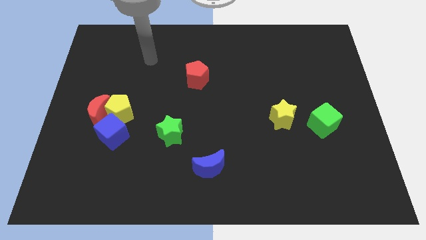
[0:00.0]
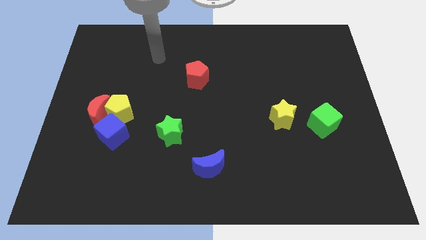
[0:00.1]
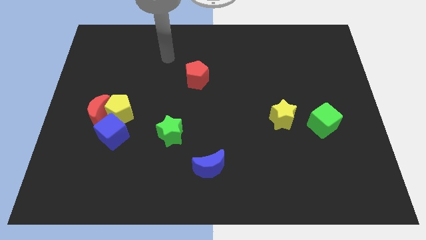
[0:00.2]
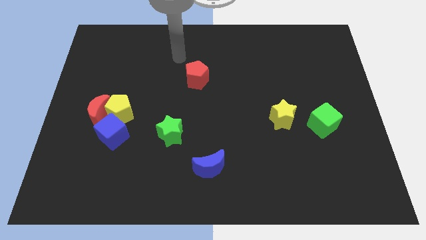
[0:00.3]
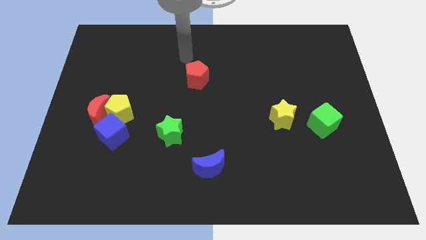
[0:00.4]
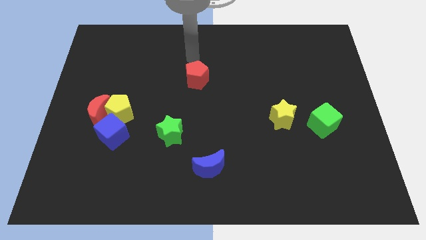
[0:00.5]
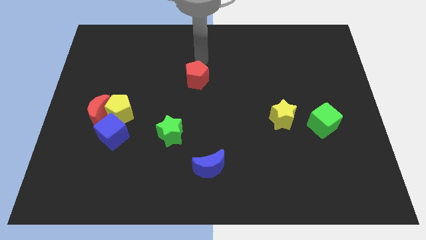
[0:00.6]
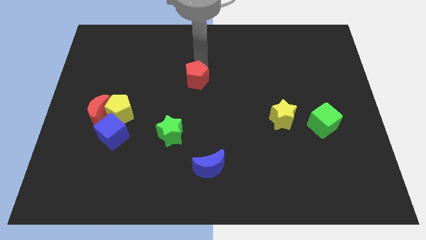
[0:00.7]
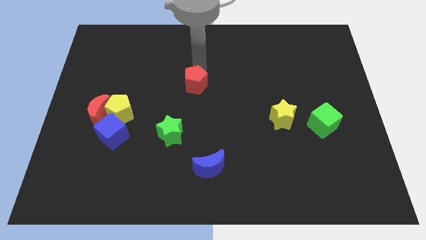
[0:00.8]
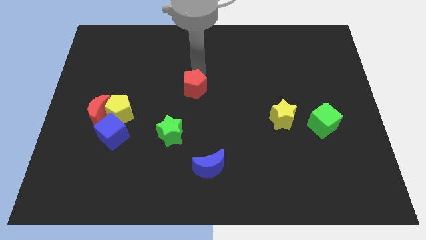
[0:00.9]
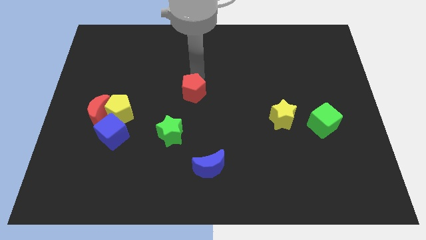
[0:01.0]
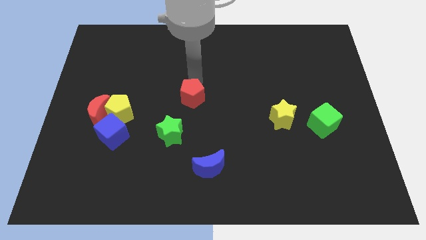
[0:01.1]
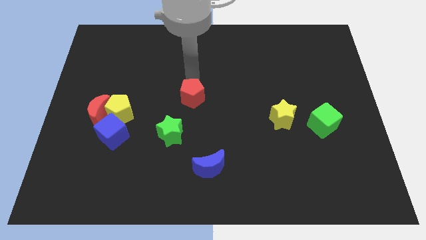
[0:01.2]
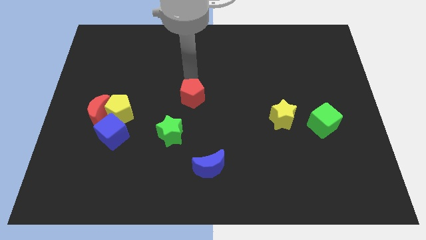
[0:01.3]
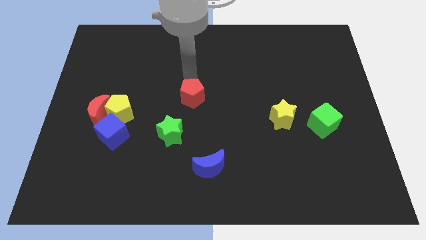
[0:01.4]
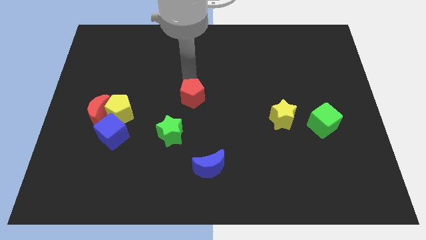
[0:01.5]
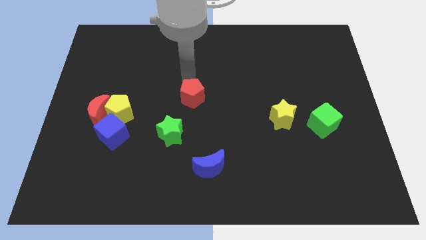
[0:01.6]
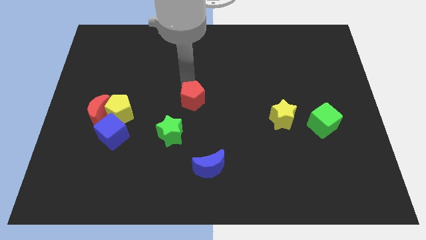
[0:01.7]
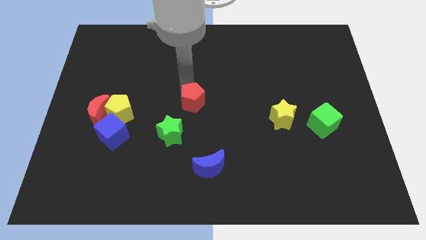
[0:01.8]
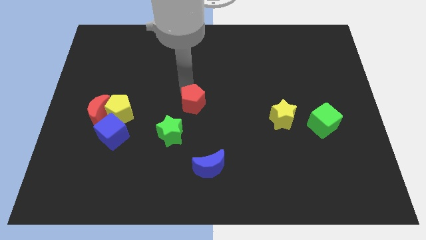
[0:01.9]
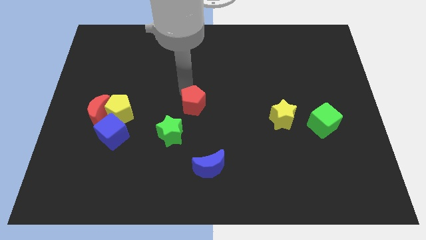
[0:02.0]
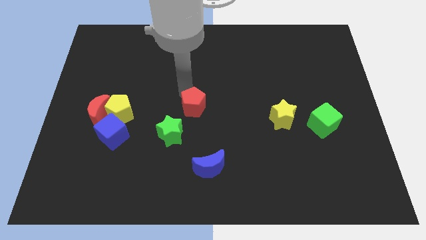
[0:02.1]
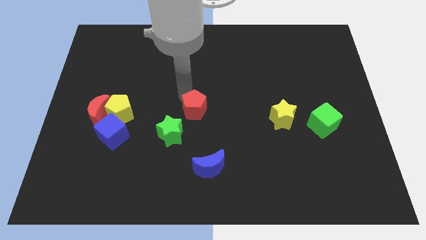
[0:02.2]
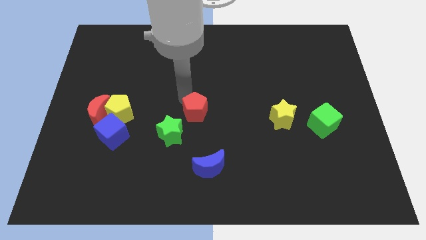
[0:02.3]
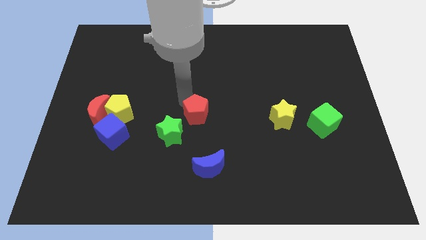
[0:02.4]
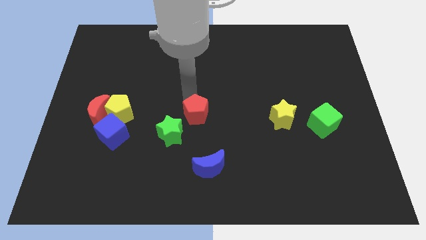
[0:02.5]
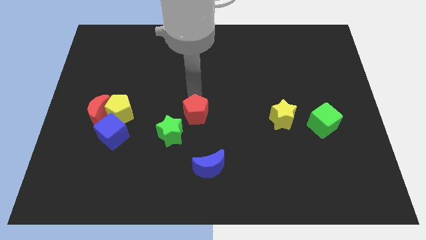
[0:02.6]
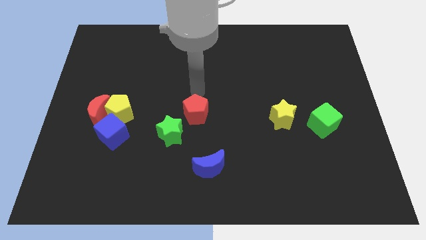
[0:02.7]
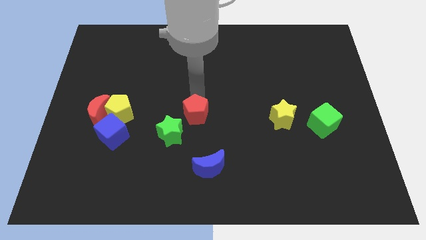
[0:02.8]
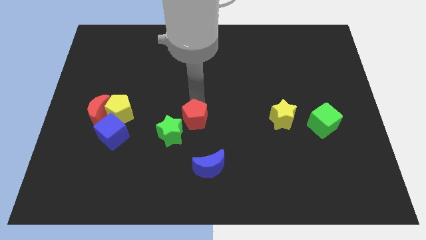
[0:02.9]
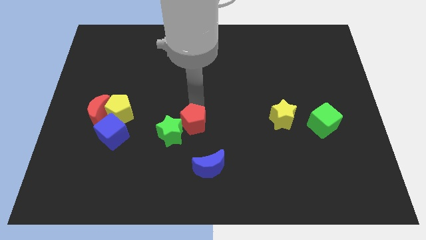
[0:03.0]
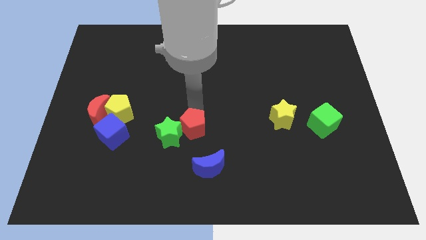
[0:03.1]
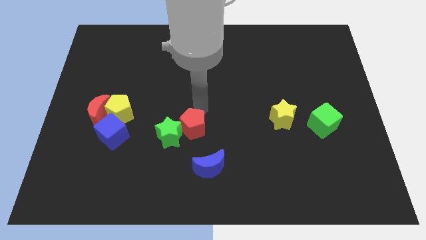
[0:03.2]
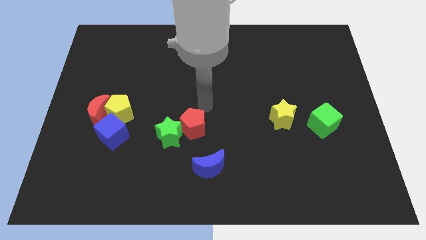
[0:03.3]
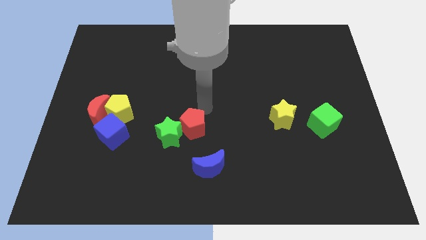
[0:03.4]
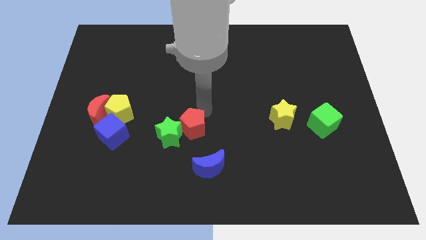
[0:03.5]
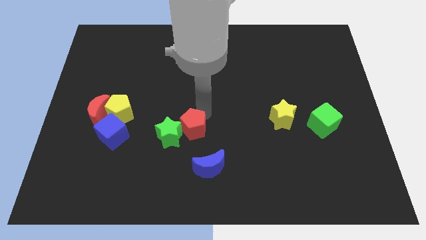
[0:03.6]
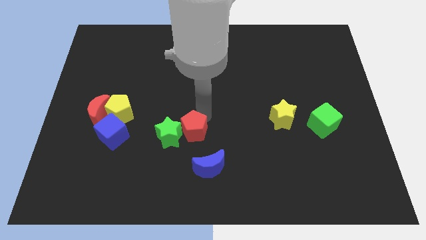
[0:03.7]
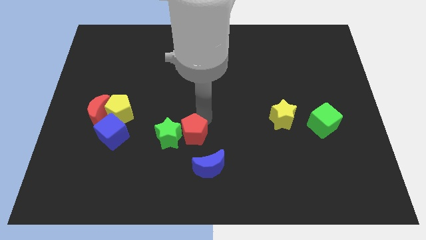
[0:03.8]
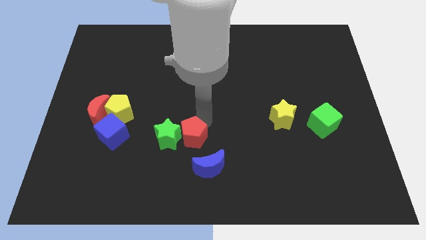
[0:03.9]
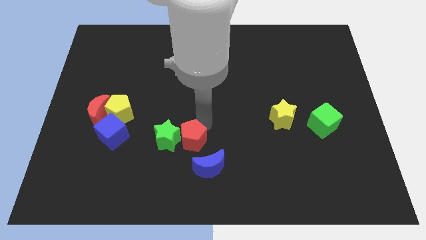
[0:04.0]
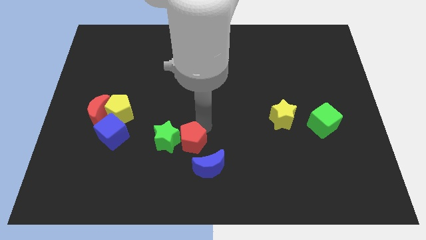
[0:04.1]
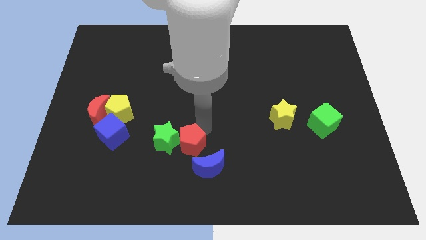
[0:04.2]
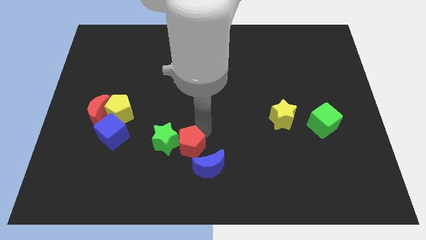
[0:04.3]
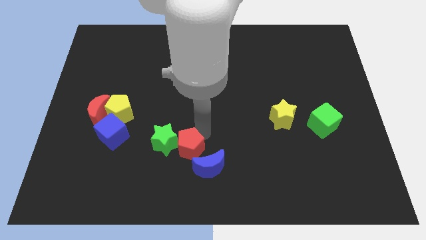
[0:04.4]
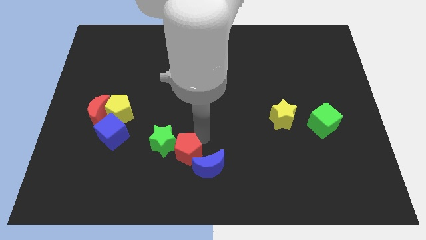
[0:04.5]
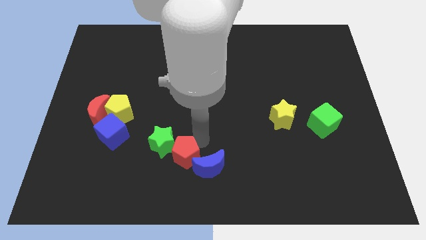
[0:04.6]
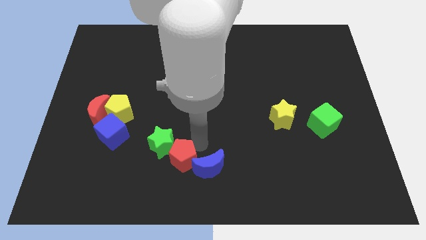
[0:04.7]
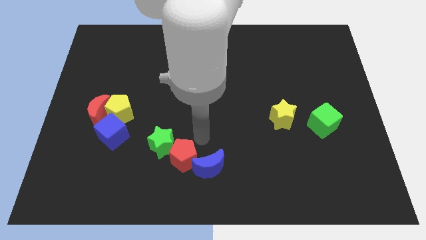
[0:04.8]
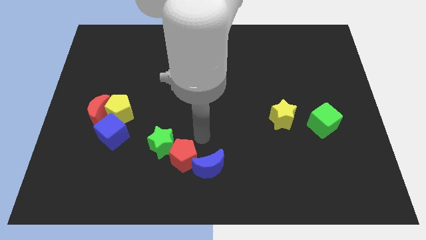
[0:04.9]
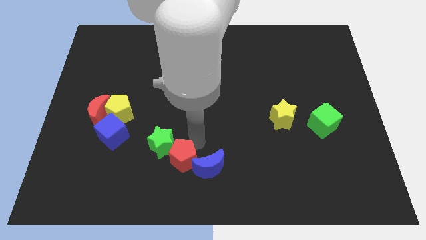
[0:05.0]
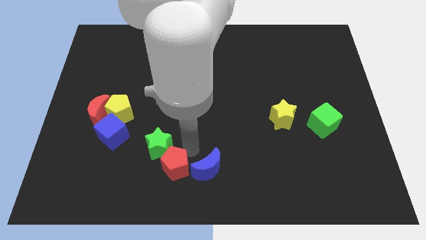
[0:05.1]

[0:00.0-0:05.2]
move the red pentagon to the bottom side of the green star

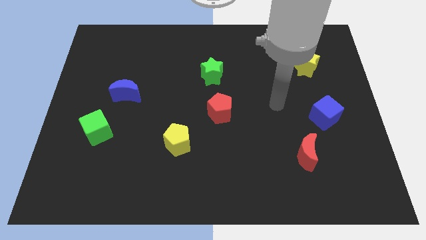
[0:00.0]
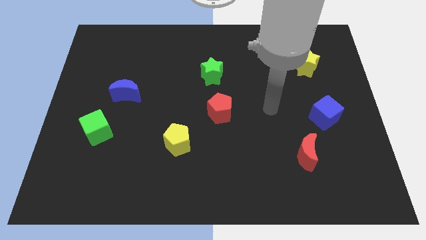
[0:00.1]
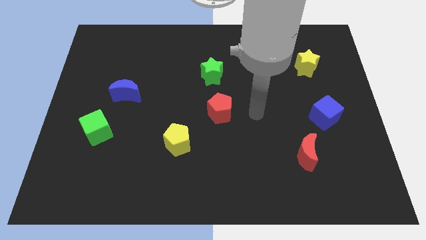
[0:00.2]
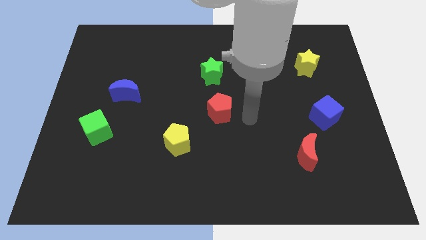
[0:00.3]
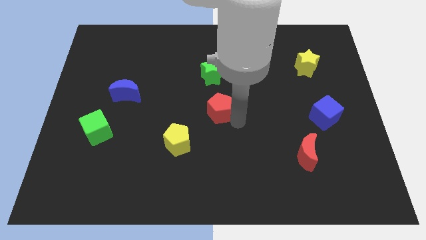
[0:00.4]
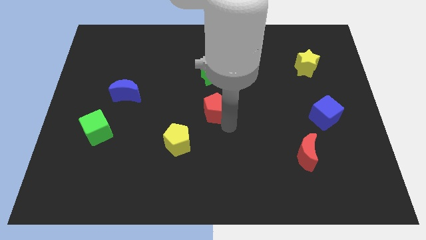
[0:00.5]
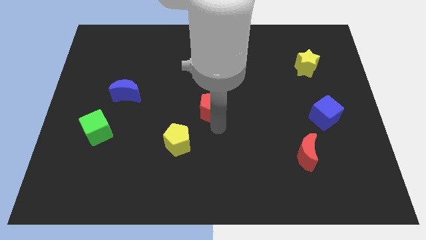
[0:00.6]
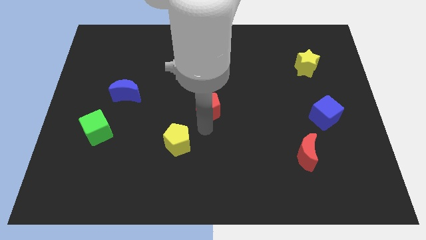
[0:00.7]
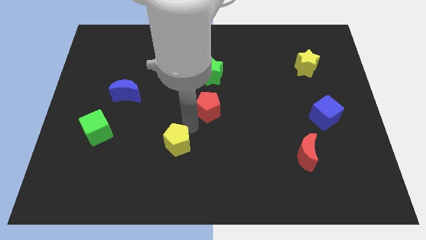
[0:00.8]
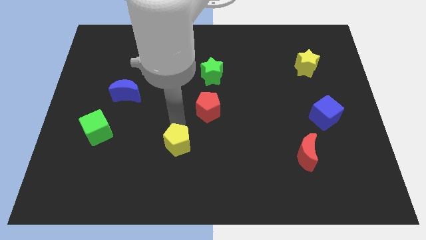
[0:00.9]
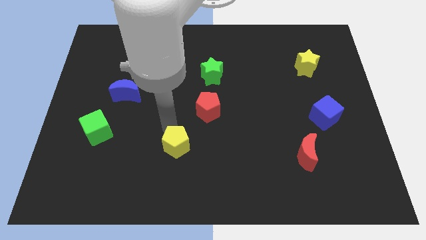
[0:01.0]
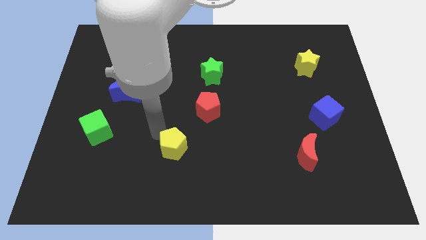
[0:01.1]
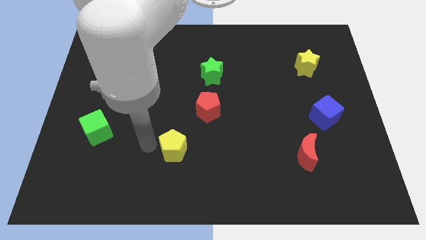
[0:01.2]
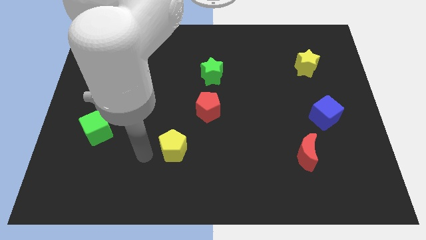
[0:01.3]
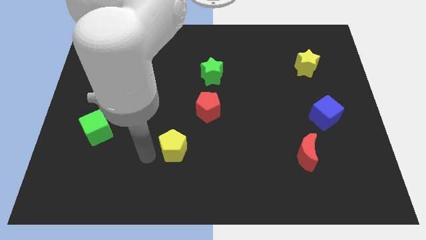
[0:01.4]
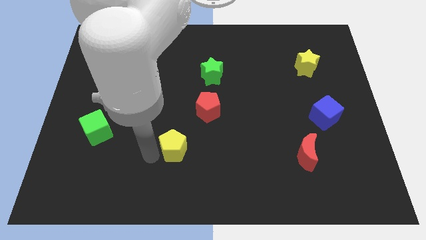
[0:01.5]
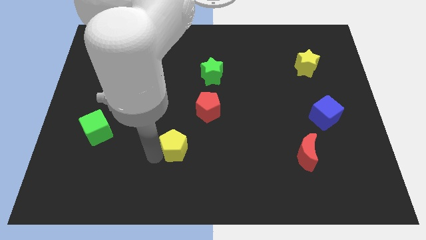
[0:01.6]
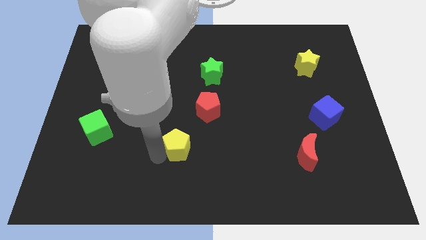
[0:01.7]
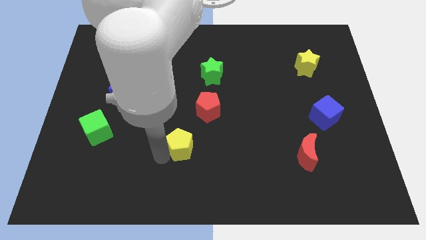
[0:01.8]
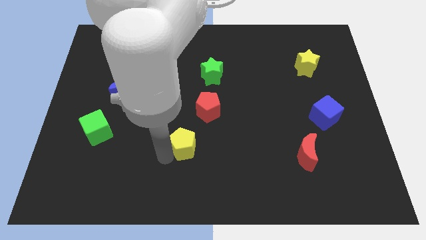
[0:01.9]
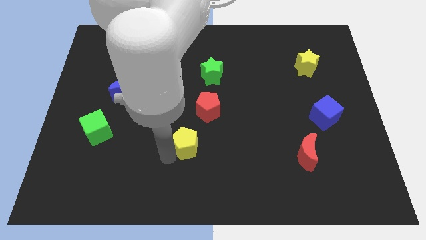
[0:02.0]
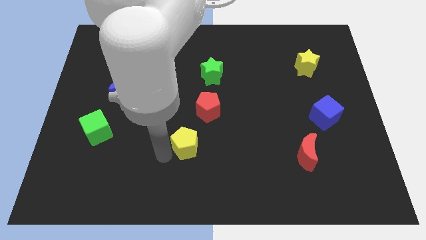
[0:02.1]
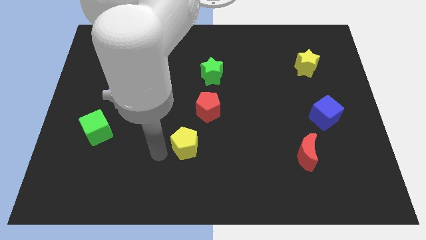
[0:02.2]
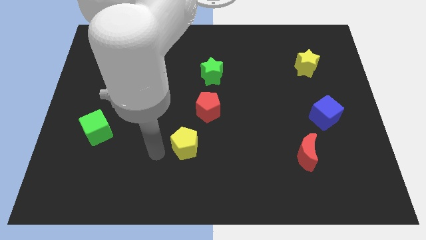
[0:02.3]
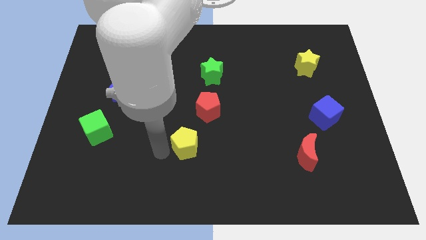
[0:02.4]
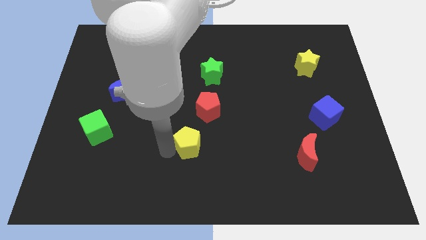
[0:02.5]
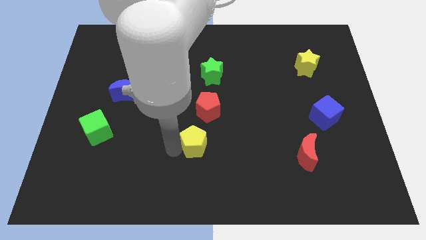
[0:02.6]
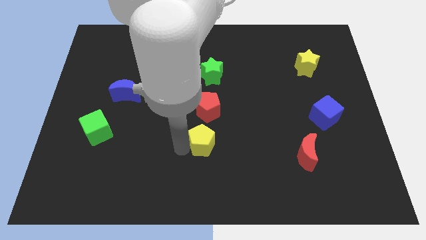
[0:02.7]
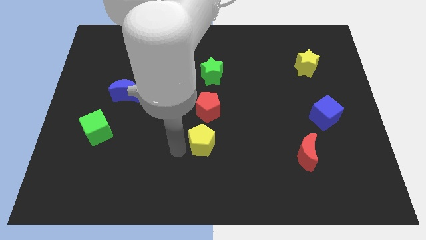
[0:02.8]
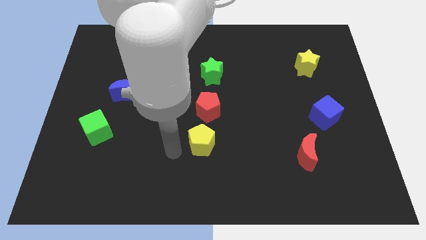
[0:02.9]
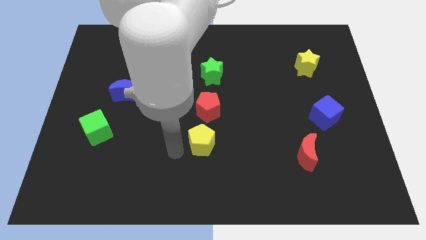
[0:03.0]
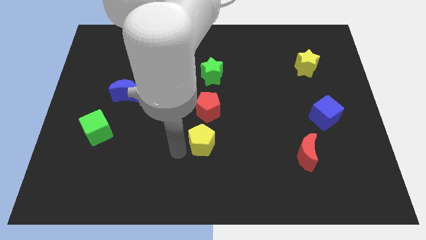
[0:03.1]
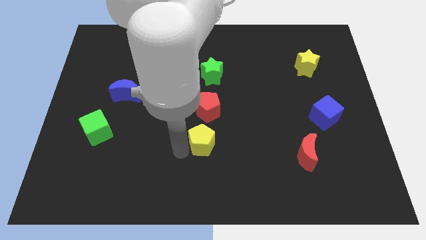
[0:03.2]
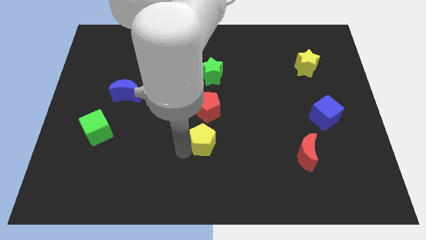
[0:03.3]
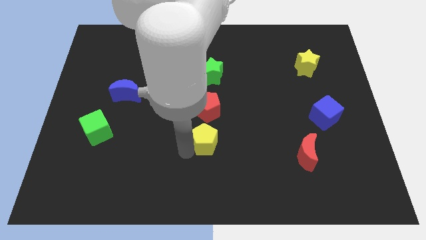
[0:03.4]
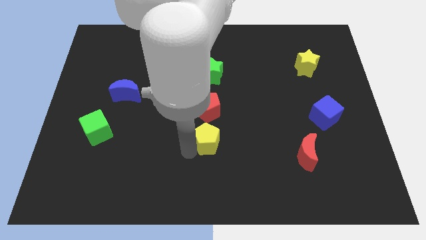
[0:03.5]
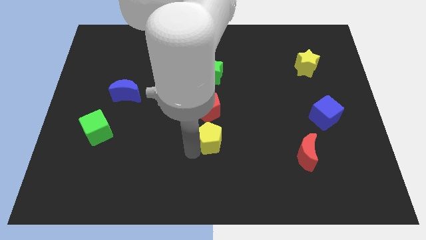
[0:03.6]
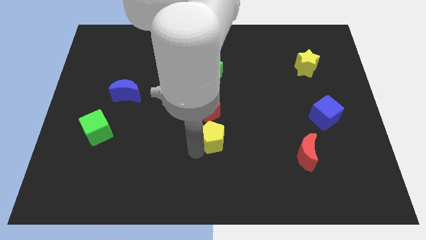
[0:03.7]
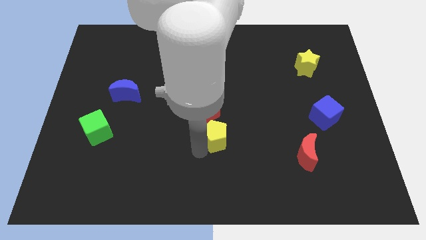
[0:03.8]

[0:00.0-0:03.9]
move the yellow pentagon diagonally down and to the right of the red pentagon
